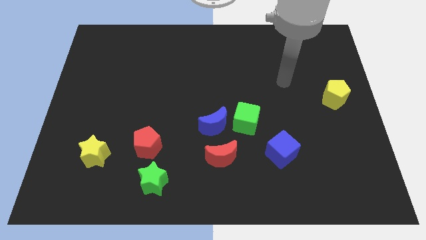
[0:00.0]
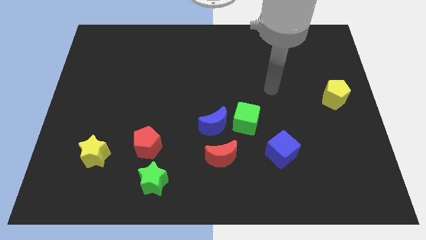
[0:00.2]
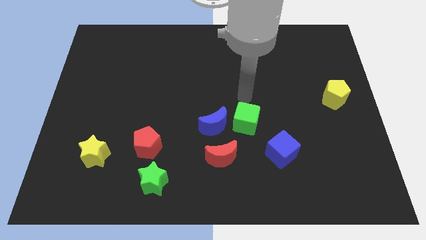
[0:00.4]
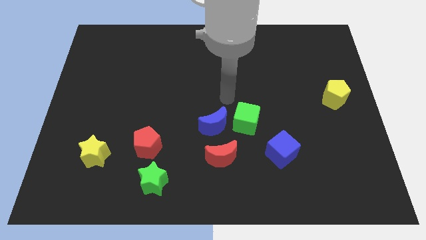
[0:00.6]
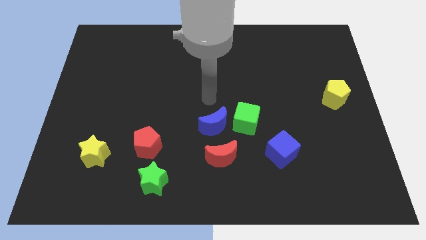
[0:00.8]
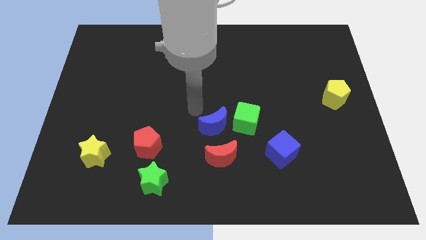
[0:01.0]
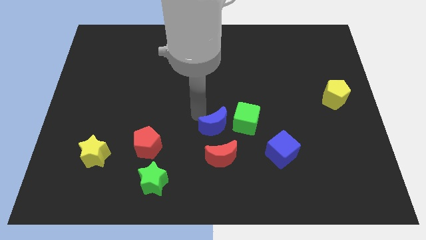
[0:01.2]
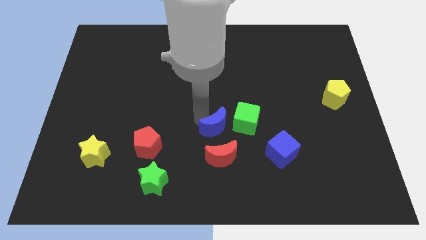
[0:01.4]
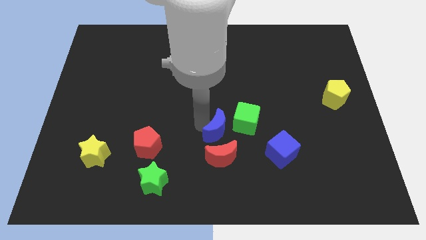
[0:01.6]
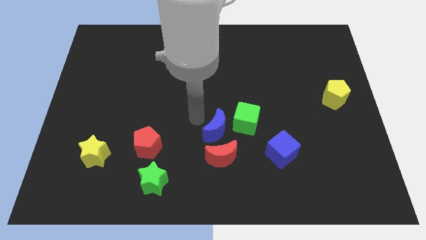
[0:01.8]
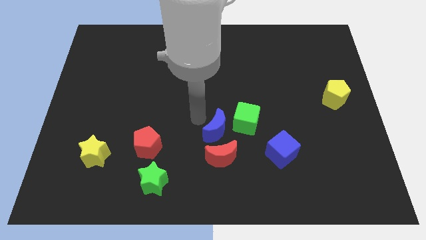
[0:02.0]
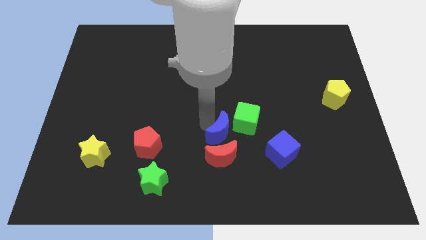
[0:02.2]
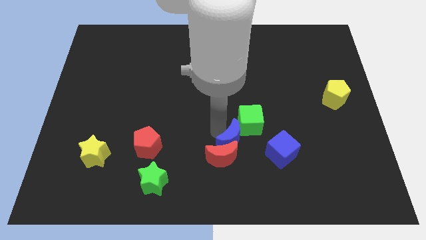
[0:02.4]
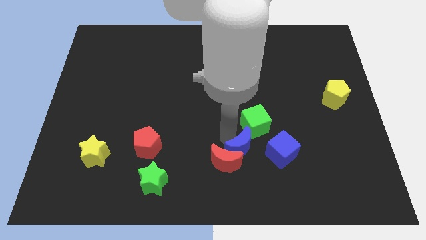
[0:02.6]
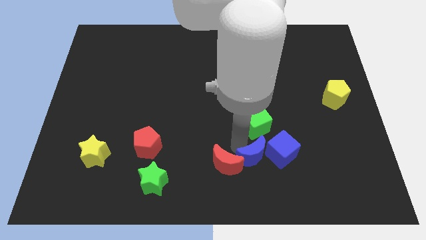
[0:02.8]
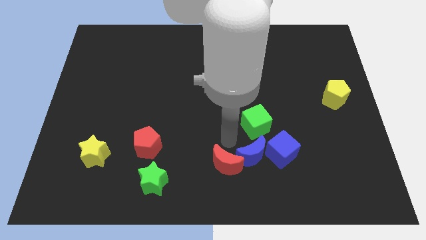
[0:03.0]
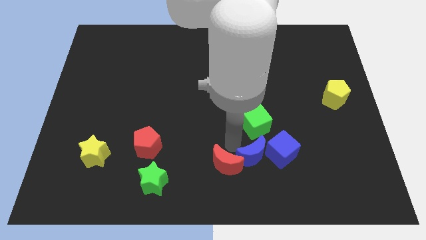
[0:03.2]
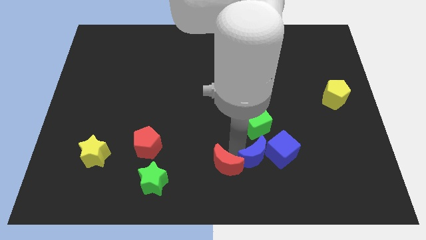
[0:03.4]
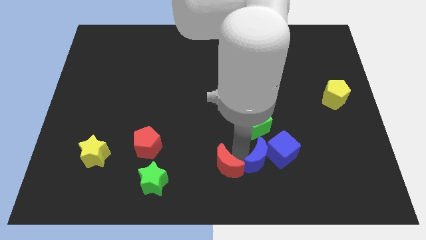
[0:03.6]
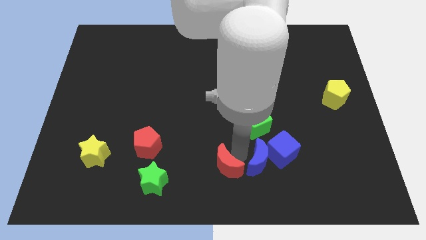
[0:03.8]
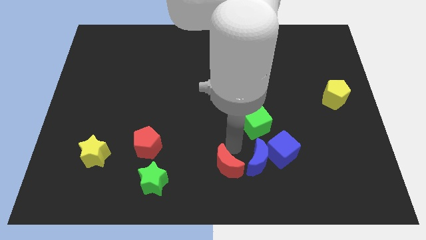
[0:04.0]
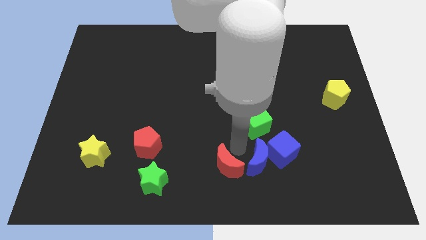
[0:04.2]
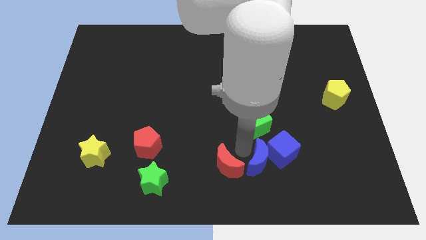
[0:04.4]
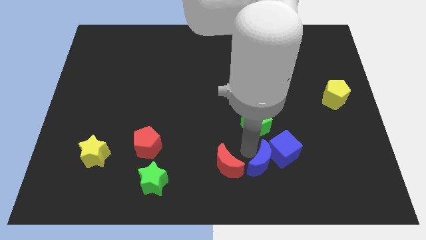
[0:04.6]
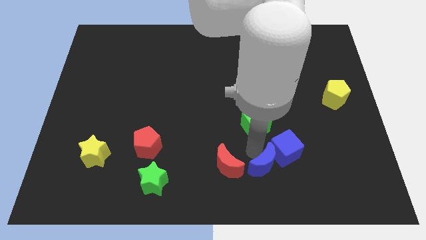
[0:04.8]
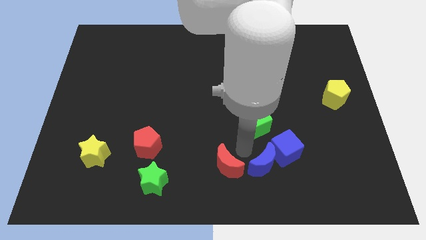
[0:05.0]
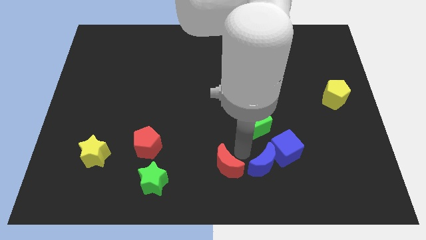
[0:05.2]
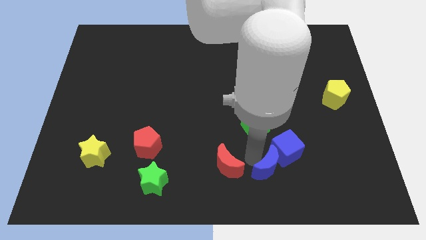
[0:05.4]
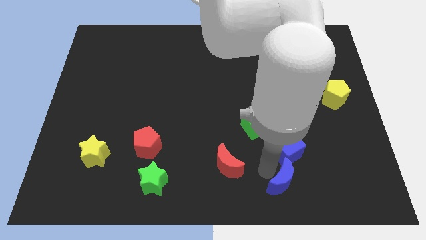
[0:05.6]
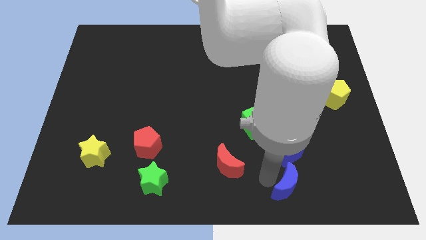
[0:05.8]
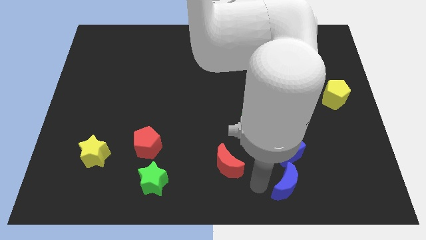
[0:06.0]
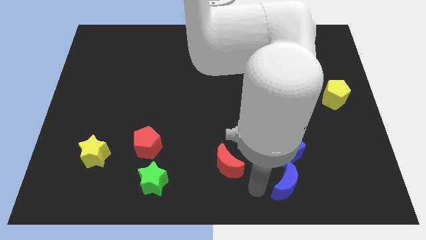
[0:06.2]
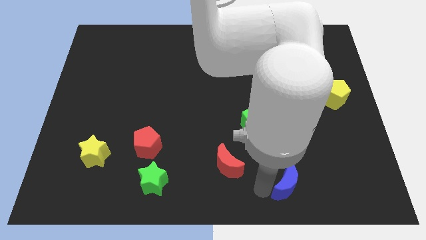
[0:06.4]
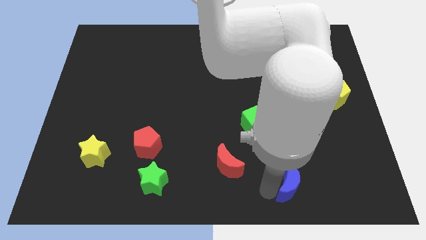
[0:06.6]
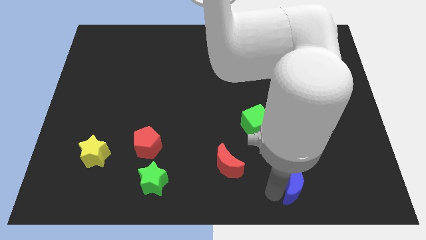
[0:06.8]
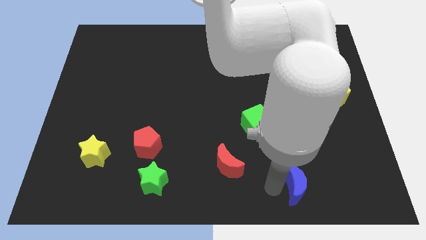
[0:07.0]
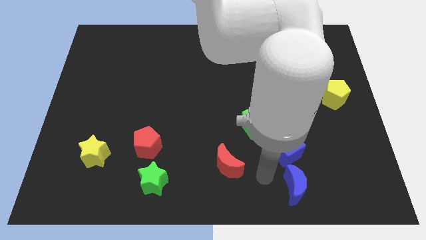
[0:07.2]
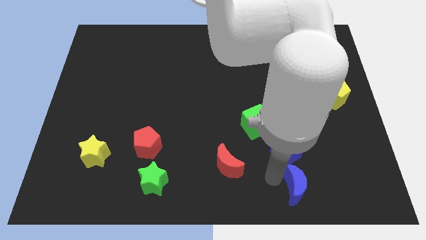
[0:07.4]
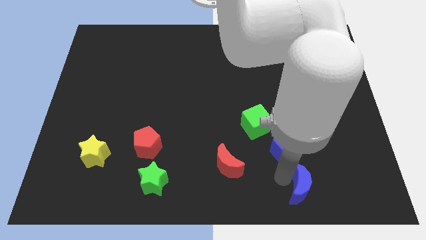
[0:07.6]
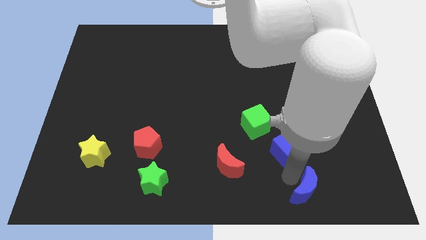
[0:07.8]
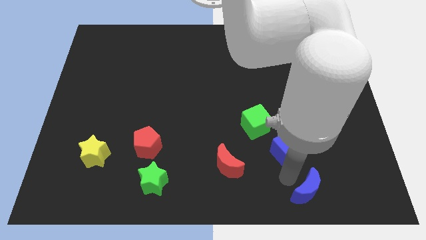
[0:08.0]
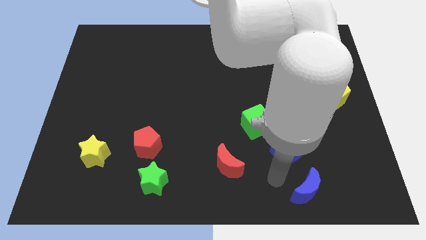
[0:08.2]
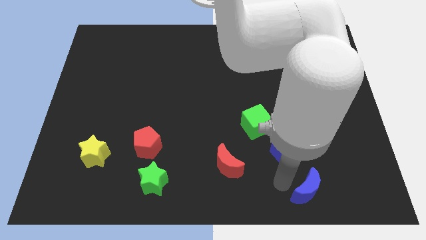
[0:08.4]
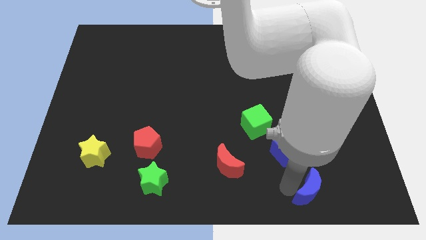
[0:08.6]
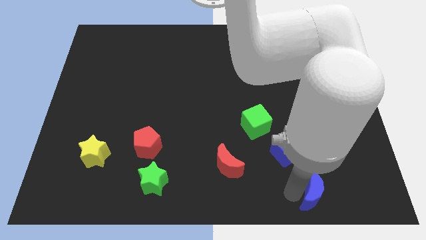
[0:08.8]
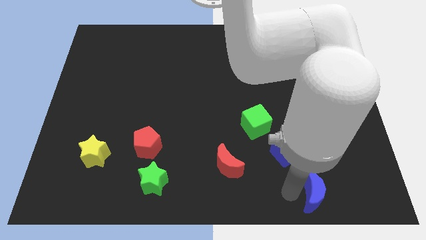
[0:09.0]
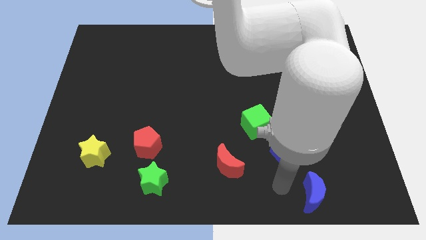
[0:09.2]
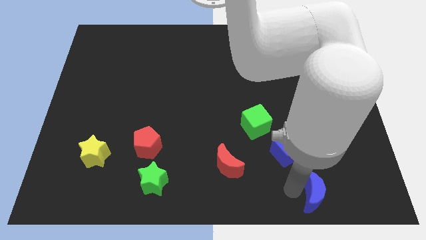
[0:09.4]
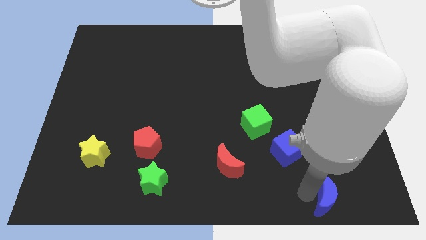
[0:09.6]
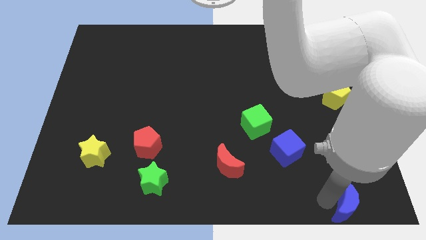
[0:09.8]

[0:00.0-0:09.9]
push the blue moon to the bottom right

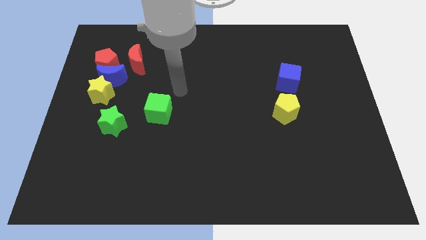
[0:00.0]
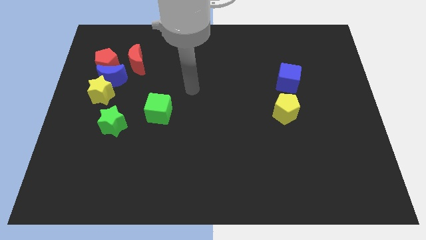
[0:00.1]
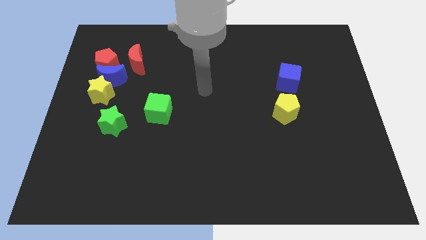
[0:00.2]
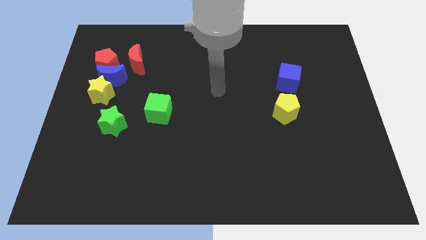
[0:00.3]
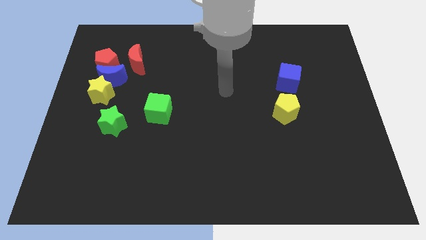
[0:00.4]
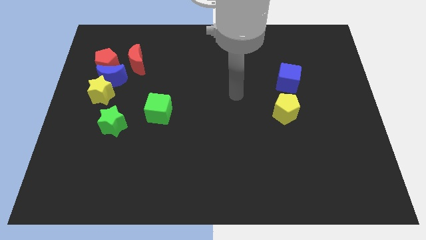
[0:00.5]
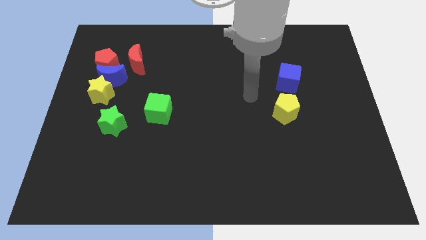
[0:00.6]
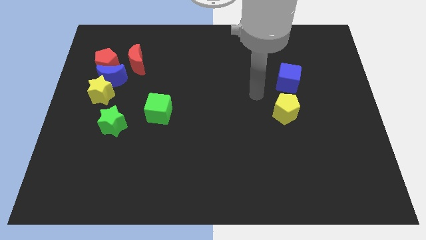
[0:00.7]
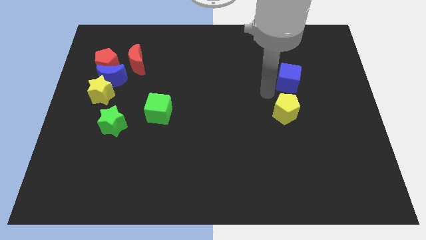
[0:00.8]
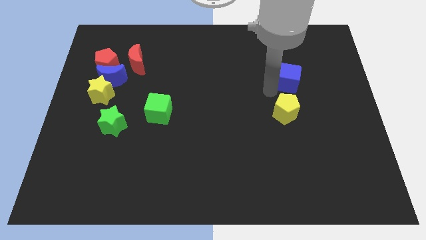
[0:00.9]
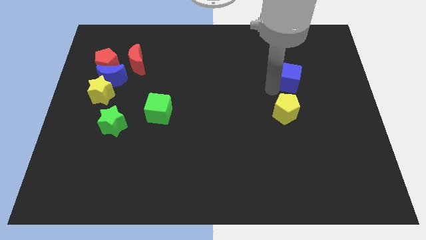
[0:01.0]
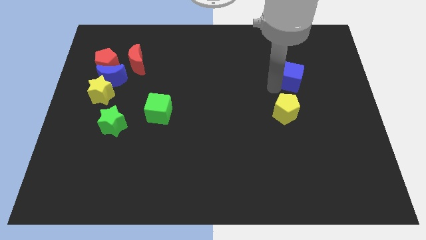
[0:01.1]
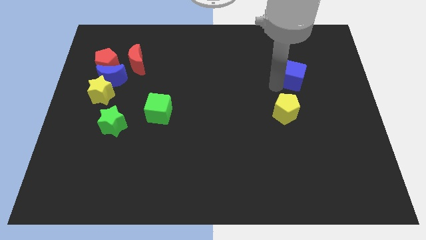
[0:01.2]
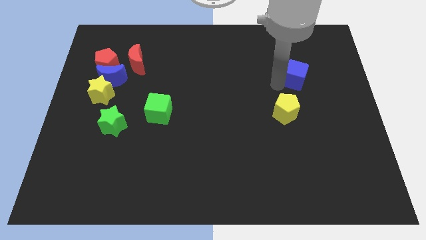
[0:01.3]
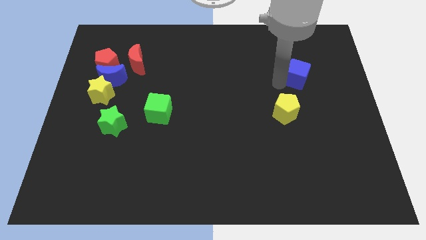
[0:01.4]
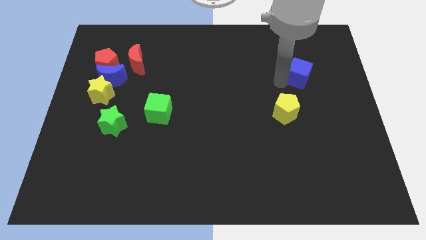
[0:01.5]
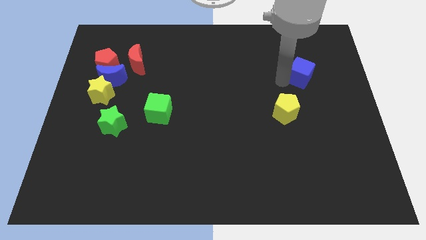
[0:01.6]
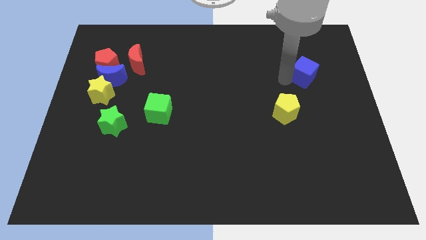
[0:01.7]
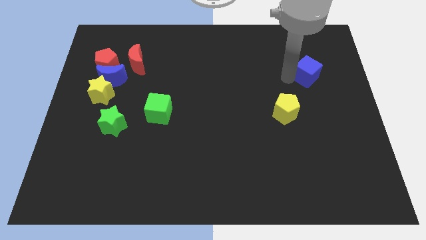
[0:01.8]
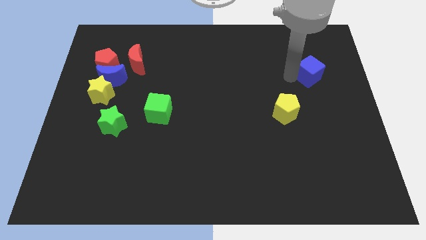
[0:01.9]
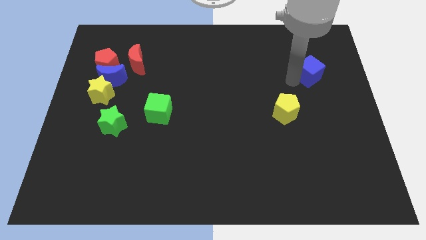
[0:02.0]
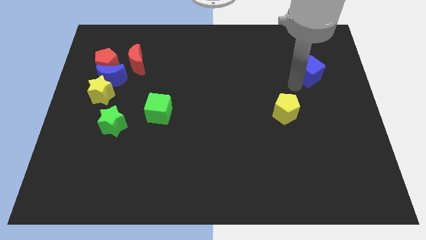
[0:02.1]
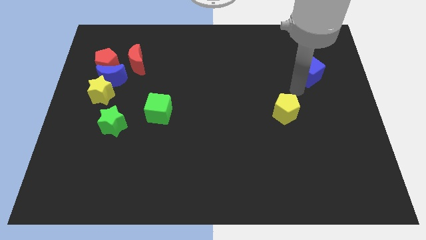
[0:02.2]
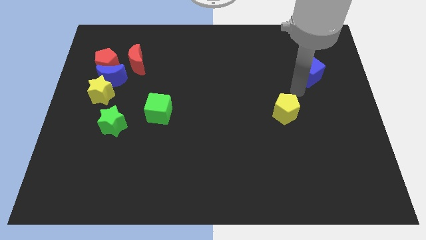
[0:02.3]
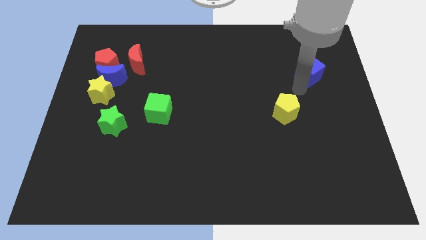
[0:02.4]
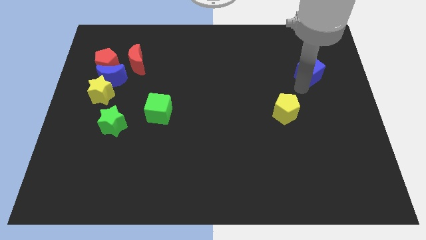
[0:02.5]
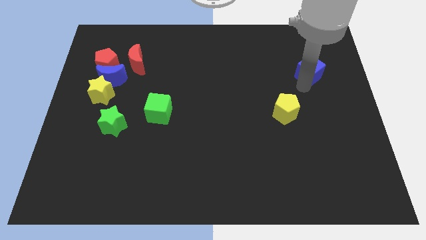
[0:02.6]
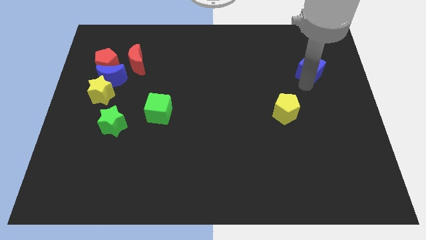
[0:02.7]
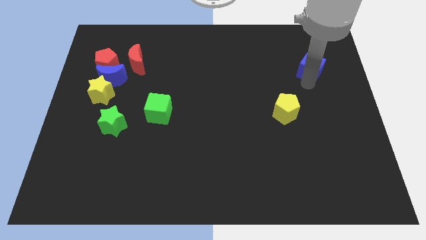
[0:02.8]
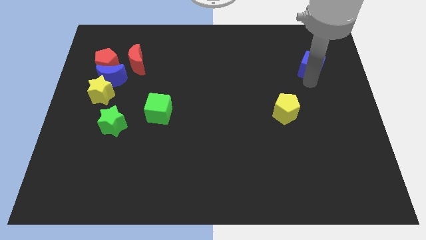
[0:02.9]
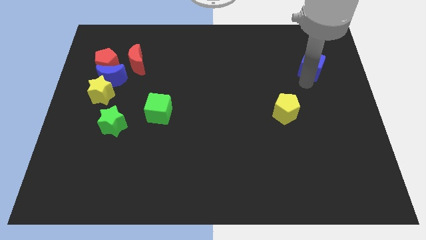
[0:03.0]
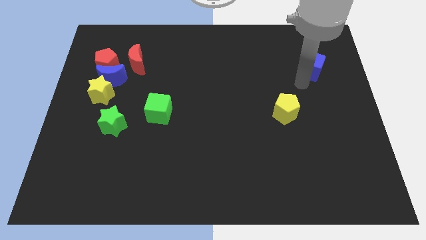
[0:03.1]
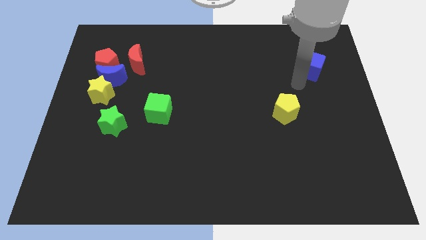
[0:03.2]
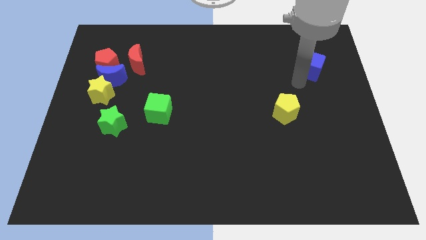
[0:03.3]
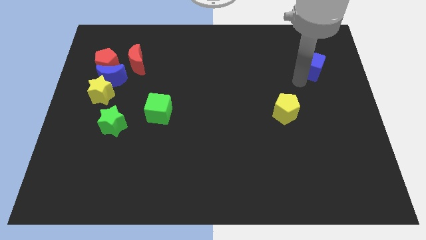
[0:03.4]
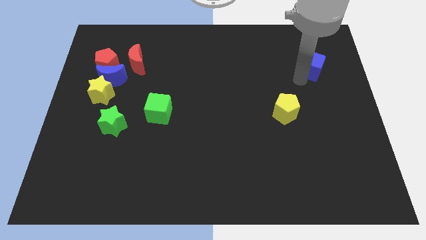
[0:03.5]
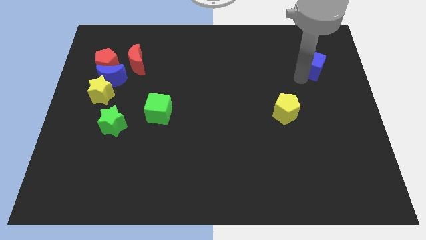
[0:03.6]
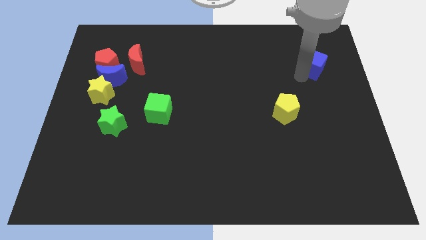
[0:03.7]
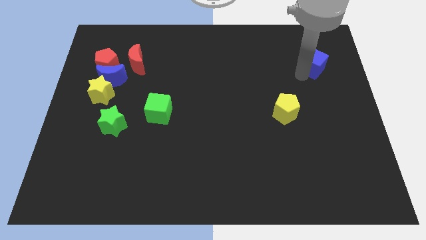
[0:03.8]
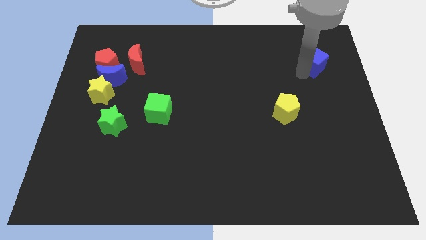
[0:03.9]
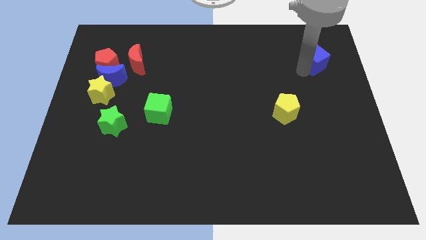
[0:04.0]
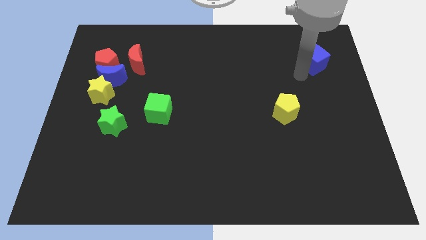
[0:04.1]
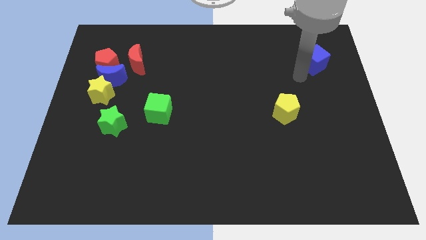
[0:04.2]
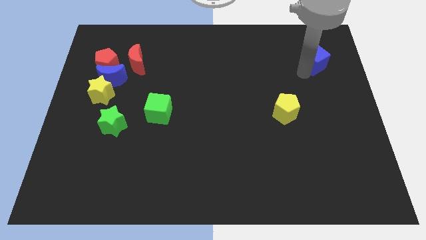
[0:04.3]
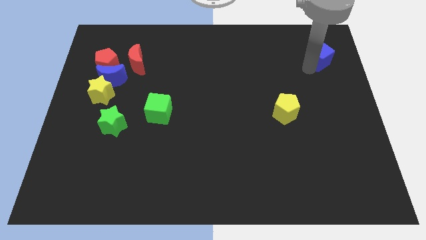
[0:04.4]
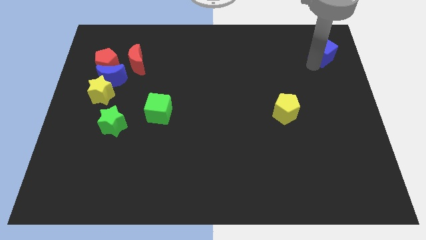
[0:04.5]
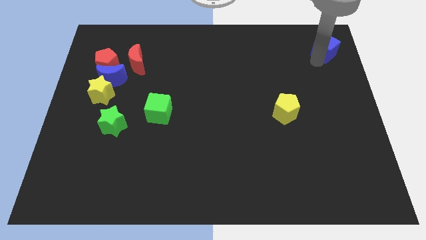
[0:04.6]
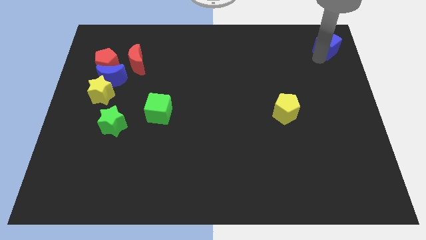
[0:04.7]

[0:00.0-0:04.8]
put the blue cube to the upper right corner
